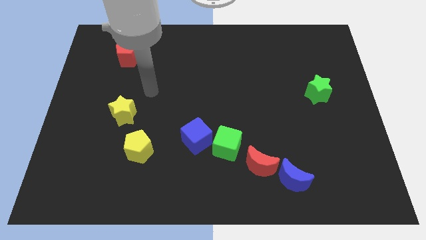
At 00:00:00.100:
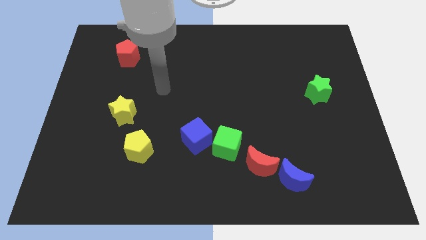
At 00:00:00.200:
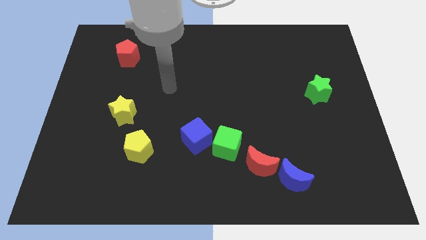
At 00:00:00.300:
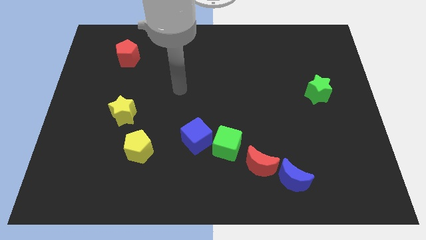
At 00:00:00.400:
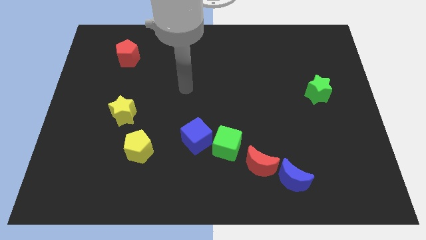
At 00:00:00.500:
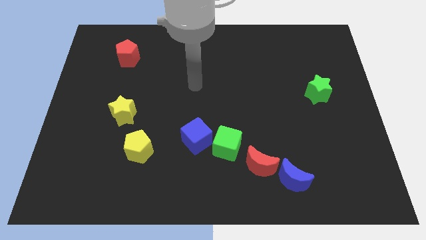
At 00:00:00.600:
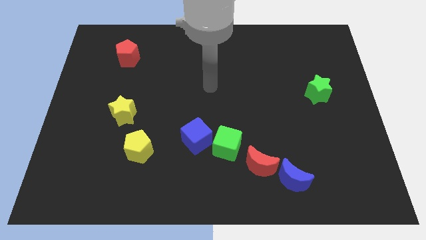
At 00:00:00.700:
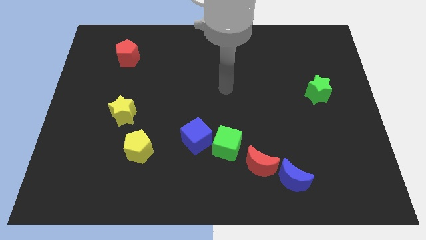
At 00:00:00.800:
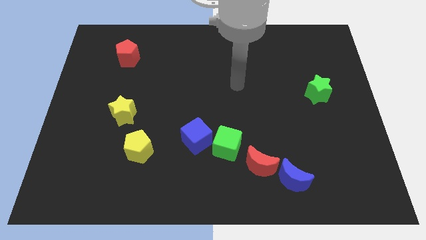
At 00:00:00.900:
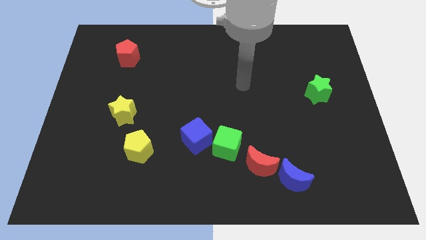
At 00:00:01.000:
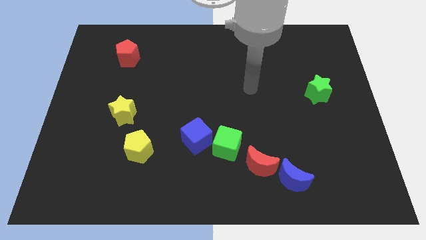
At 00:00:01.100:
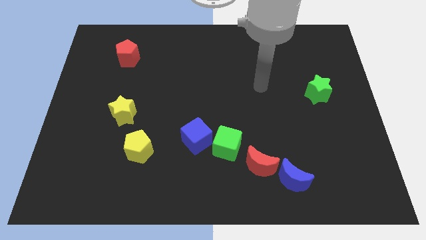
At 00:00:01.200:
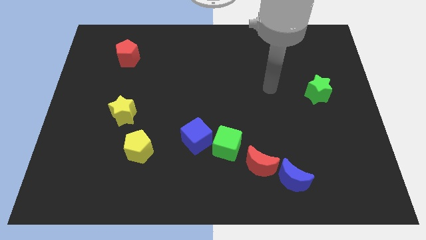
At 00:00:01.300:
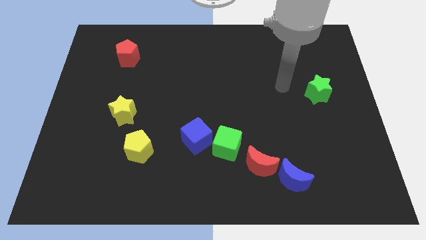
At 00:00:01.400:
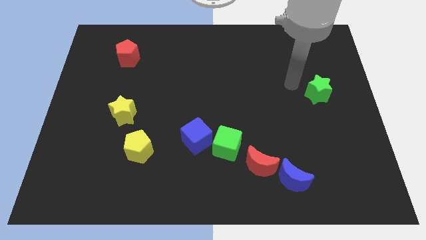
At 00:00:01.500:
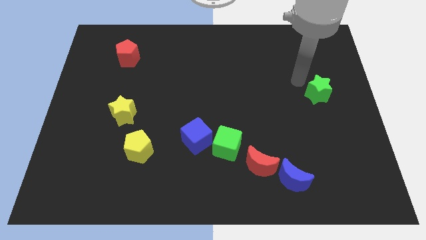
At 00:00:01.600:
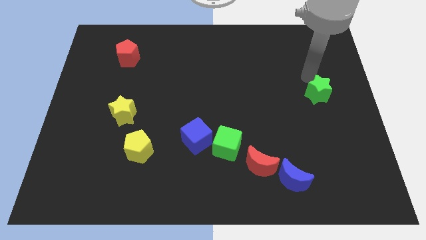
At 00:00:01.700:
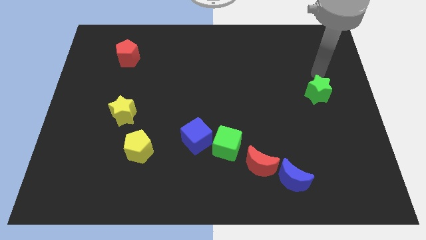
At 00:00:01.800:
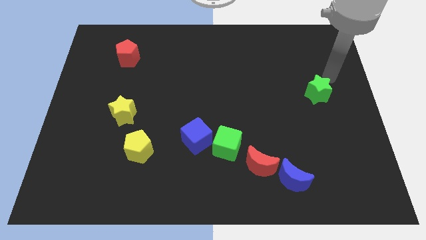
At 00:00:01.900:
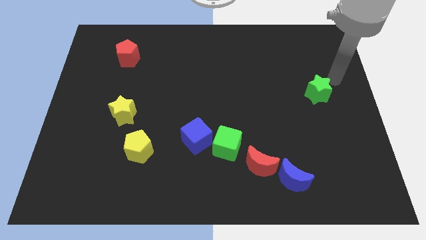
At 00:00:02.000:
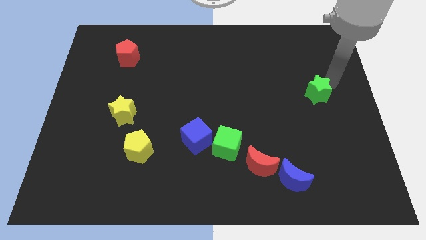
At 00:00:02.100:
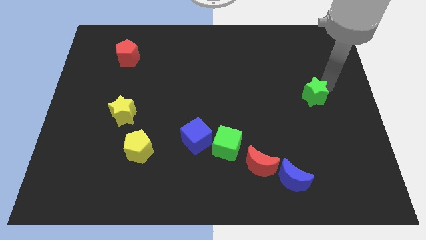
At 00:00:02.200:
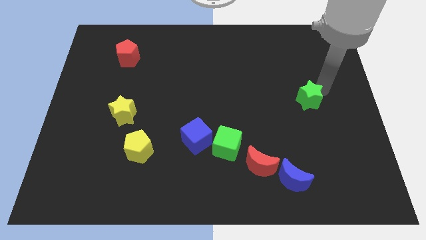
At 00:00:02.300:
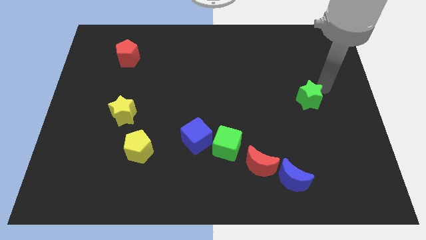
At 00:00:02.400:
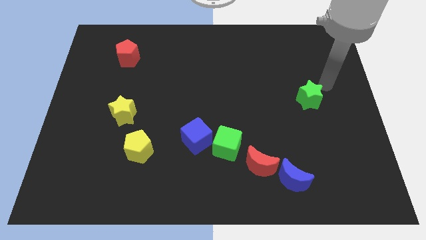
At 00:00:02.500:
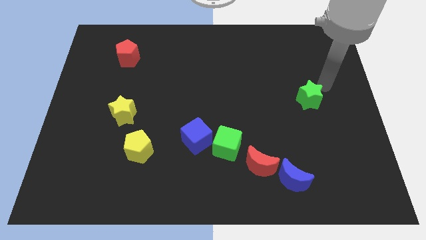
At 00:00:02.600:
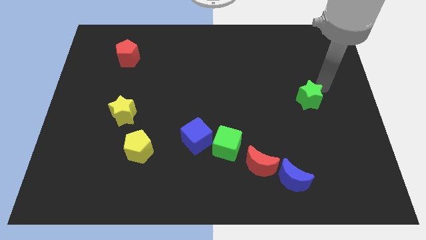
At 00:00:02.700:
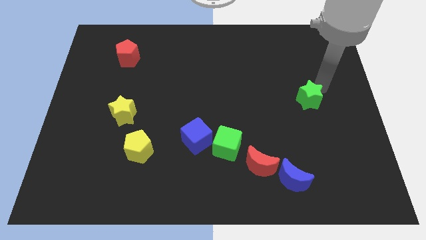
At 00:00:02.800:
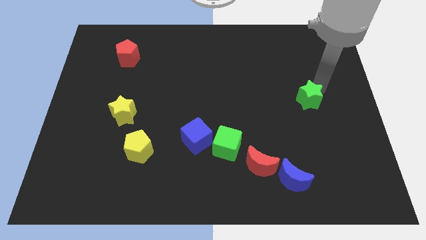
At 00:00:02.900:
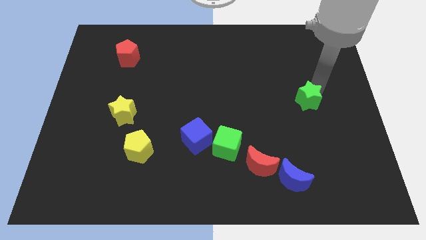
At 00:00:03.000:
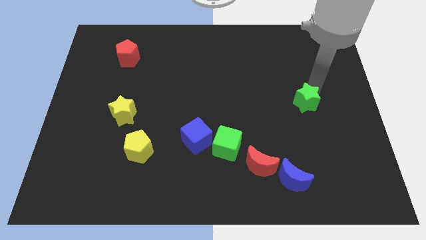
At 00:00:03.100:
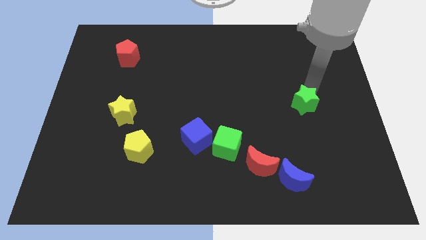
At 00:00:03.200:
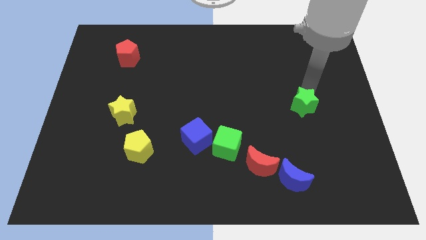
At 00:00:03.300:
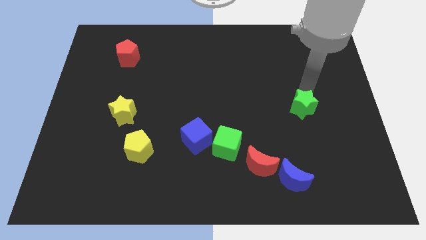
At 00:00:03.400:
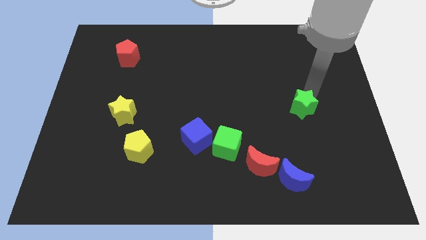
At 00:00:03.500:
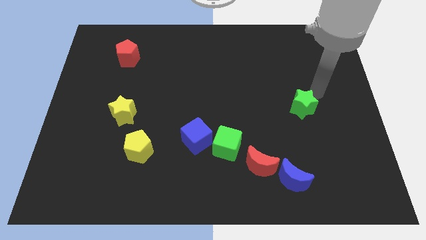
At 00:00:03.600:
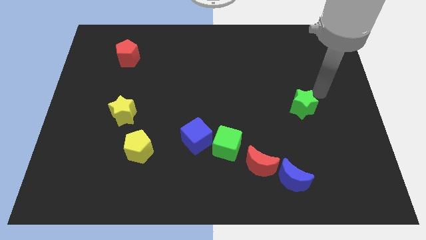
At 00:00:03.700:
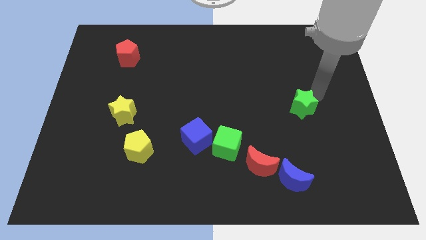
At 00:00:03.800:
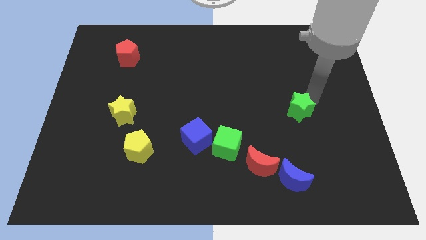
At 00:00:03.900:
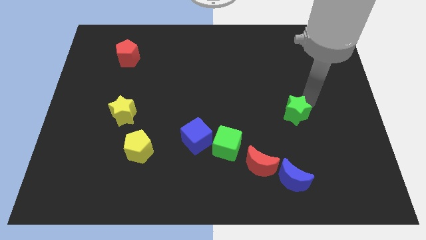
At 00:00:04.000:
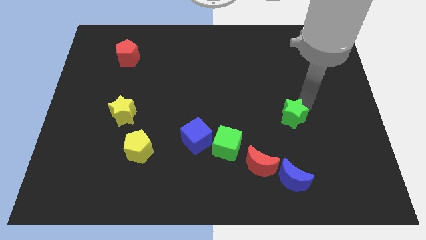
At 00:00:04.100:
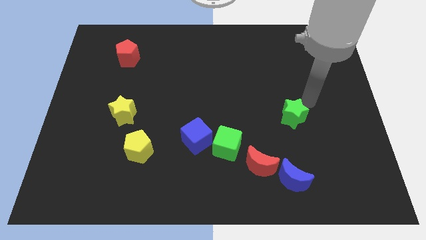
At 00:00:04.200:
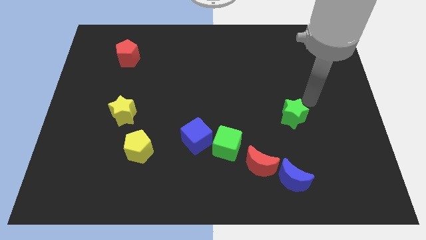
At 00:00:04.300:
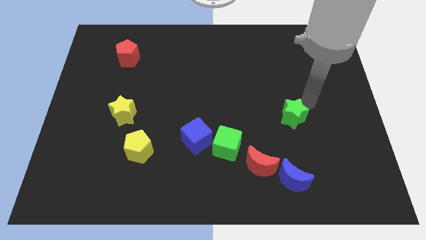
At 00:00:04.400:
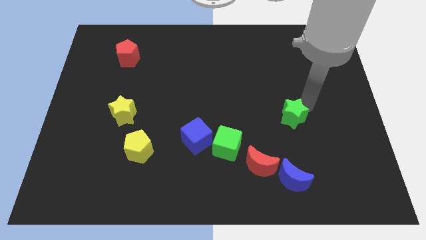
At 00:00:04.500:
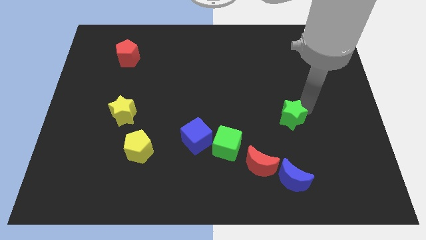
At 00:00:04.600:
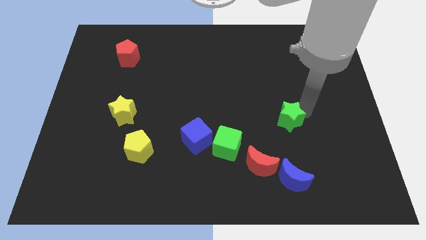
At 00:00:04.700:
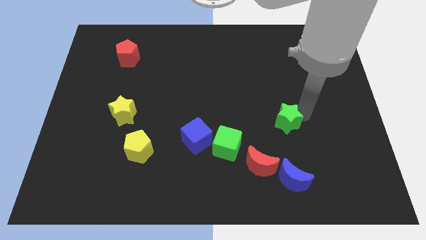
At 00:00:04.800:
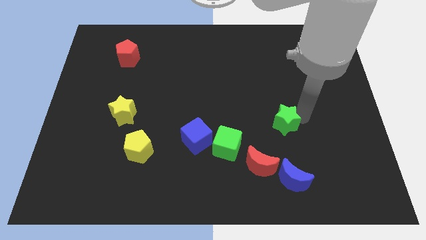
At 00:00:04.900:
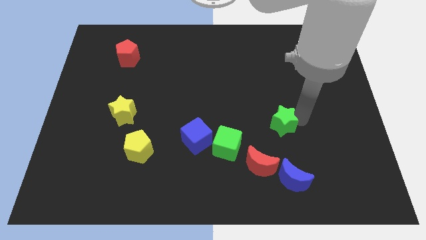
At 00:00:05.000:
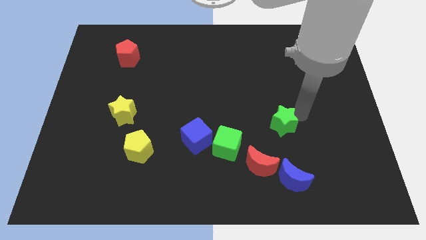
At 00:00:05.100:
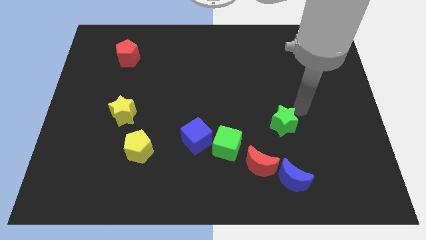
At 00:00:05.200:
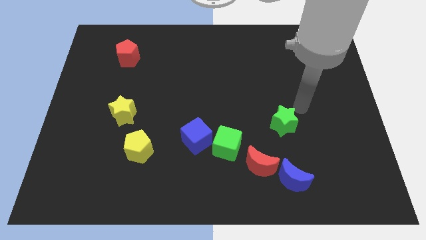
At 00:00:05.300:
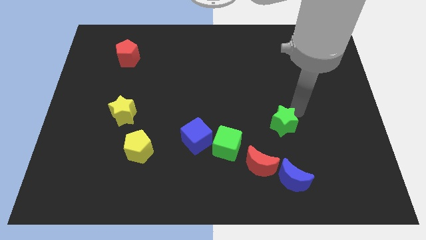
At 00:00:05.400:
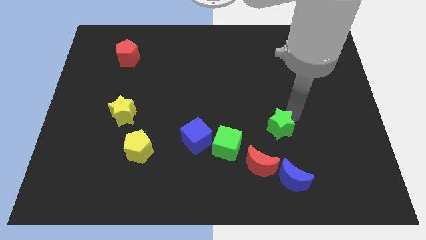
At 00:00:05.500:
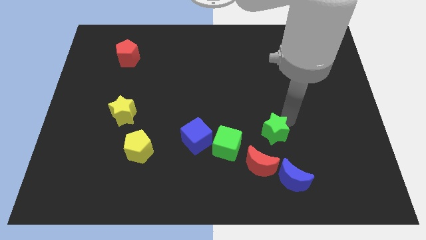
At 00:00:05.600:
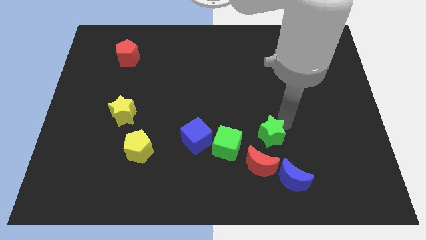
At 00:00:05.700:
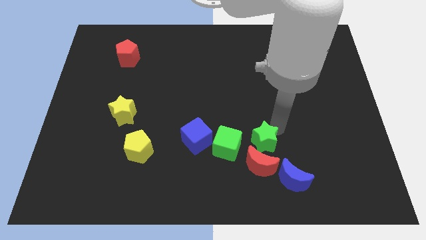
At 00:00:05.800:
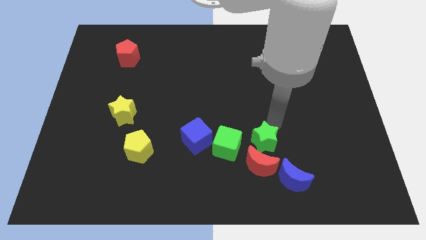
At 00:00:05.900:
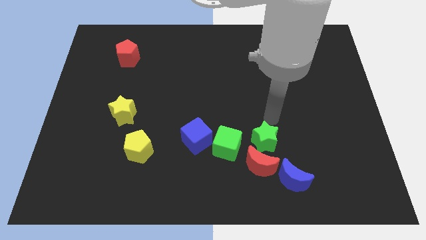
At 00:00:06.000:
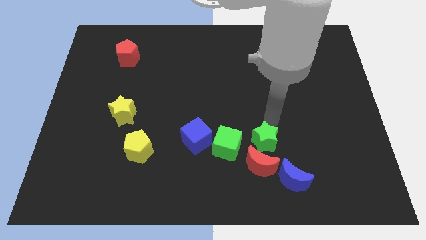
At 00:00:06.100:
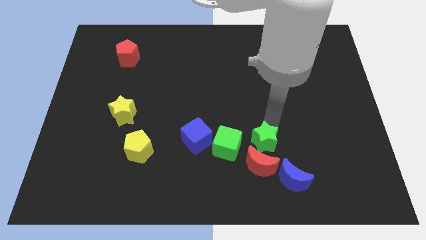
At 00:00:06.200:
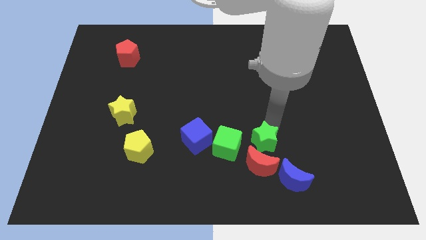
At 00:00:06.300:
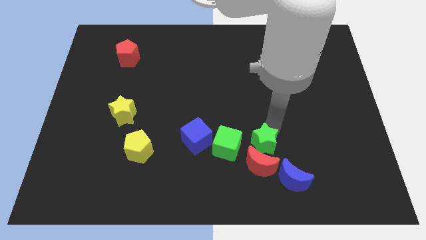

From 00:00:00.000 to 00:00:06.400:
push the green star next to the red moon
